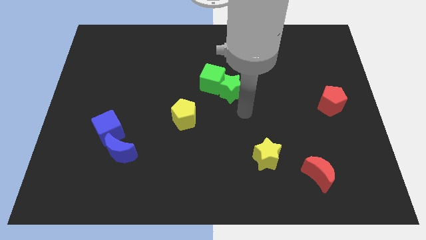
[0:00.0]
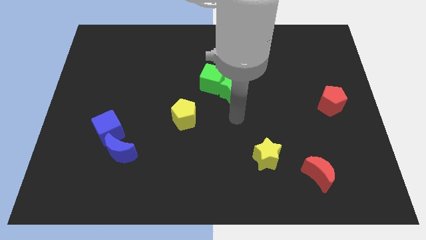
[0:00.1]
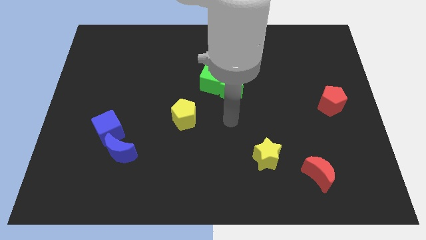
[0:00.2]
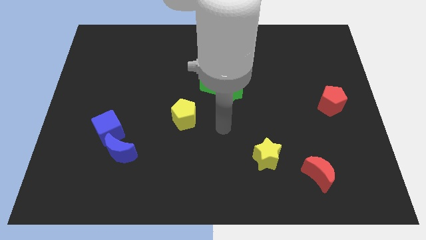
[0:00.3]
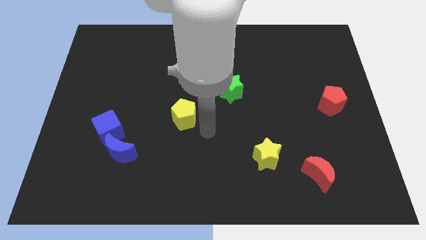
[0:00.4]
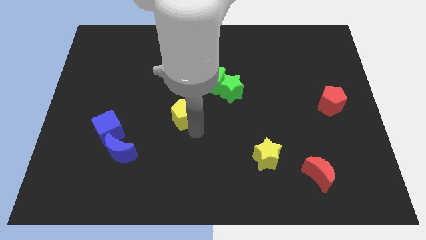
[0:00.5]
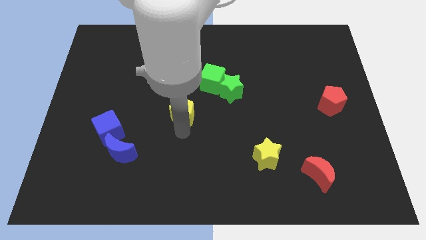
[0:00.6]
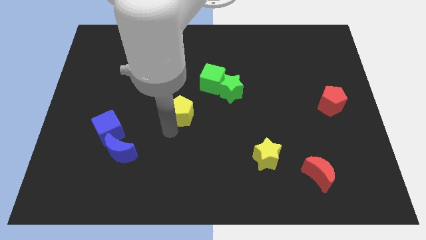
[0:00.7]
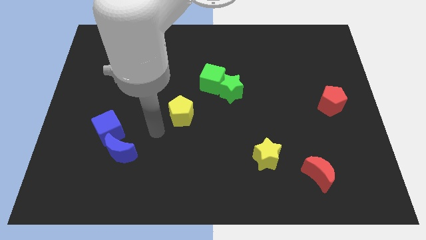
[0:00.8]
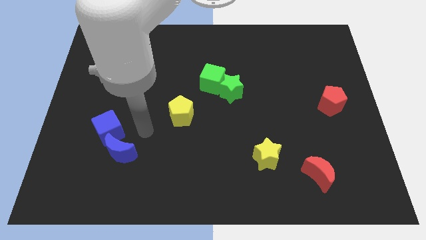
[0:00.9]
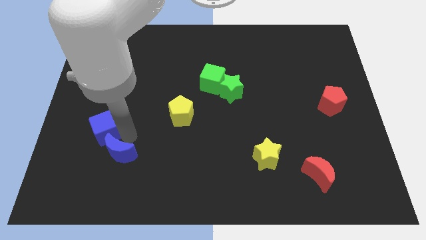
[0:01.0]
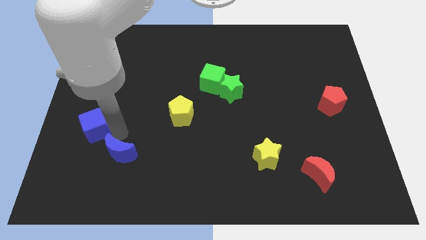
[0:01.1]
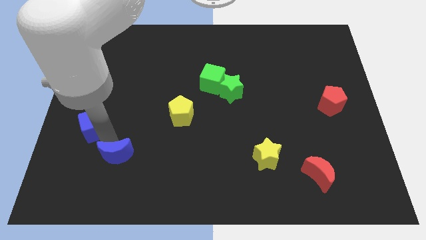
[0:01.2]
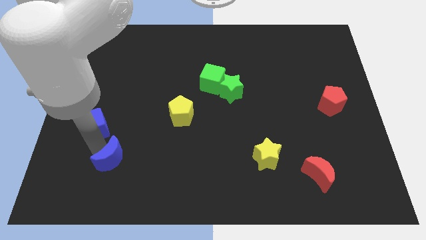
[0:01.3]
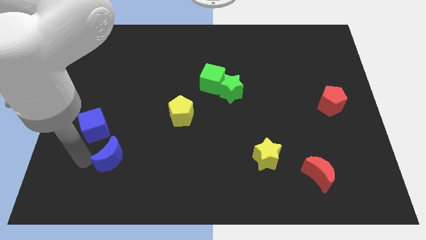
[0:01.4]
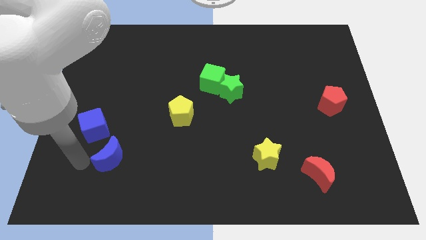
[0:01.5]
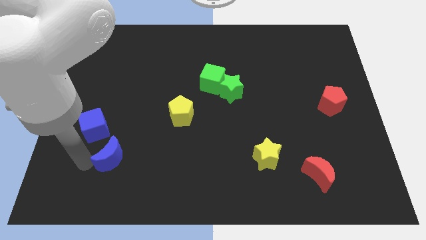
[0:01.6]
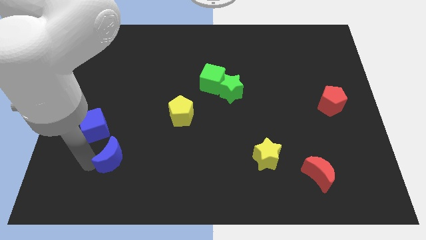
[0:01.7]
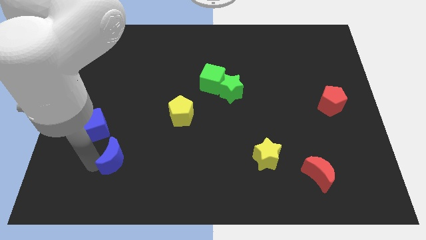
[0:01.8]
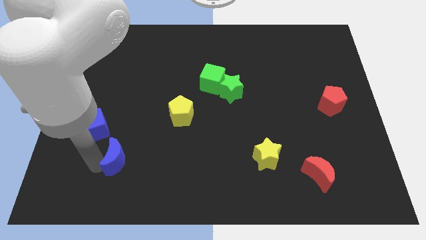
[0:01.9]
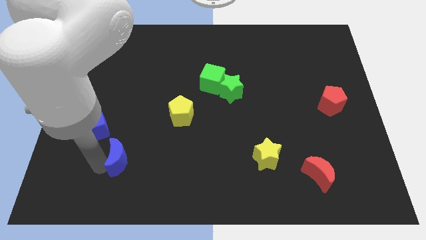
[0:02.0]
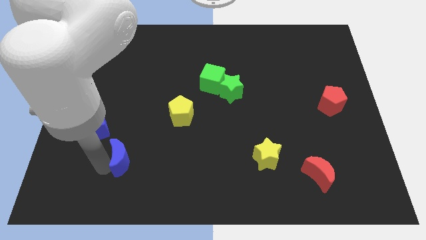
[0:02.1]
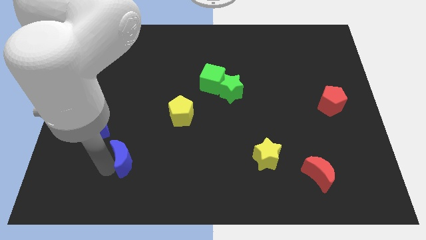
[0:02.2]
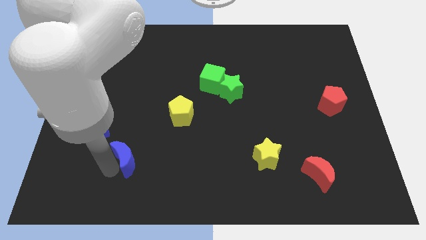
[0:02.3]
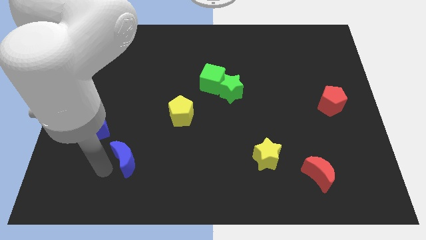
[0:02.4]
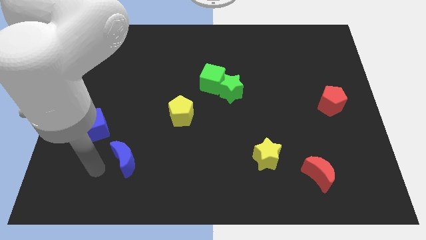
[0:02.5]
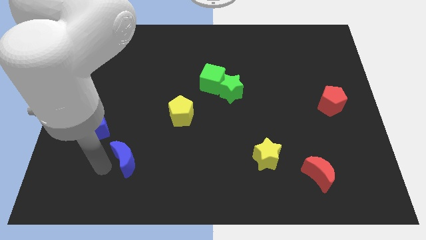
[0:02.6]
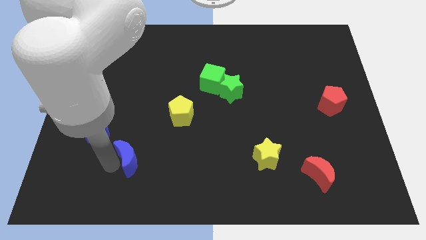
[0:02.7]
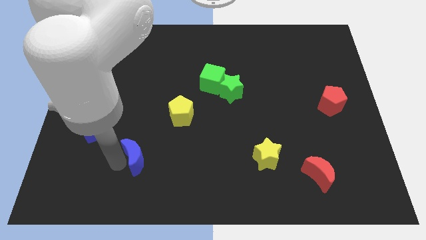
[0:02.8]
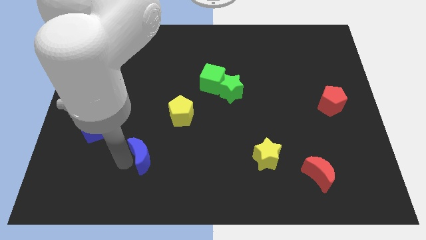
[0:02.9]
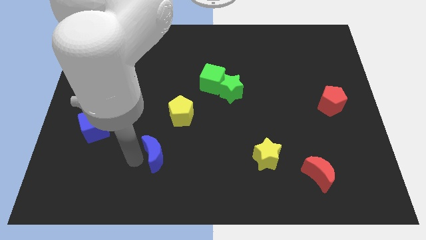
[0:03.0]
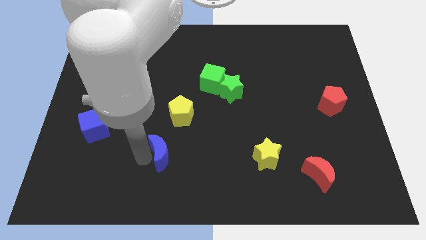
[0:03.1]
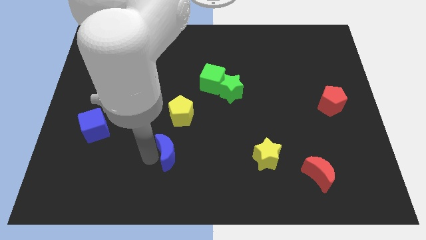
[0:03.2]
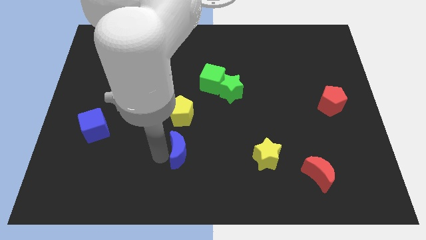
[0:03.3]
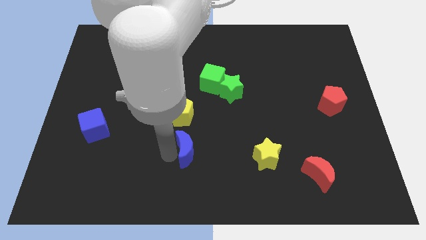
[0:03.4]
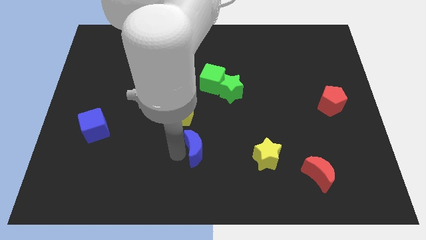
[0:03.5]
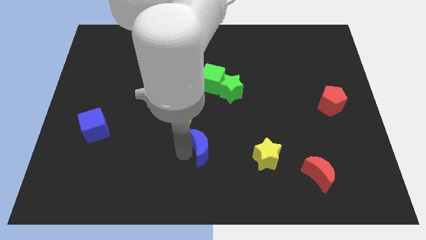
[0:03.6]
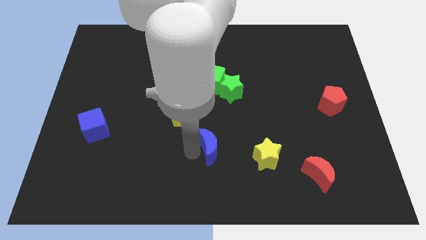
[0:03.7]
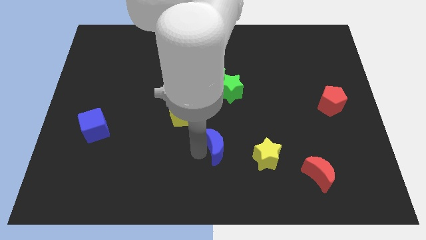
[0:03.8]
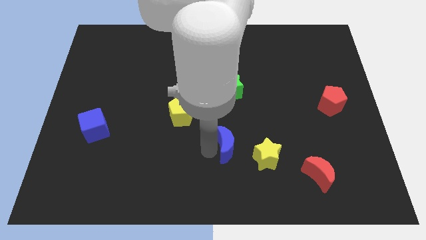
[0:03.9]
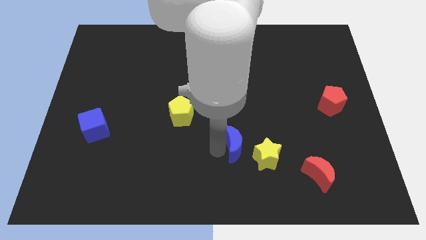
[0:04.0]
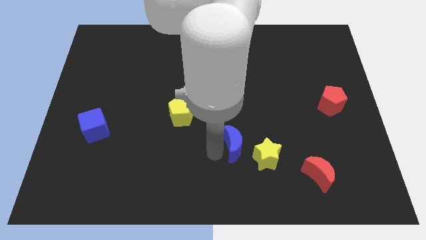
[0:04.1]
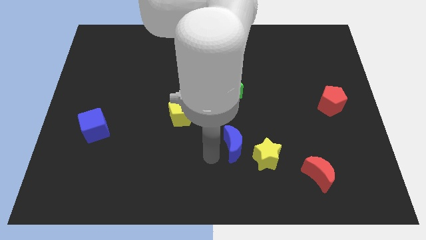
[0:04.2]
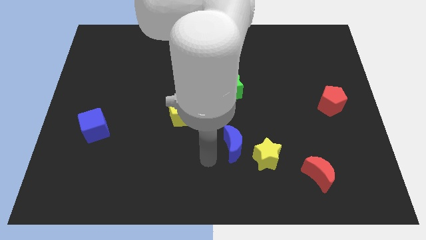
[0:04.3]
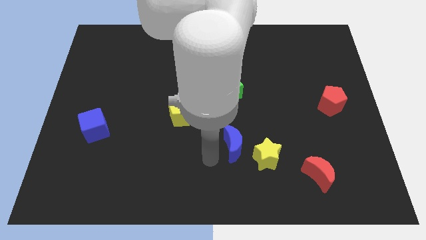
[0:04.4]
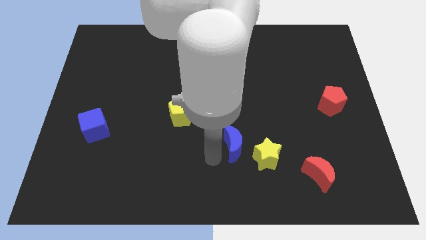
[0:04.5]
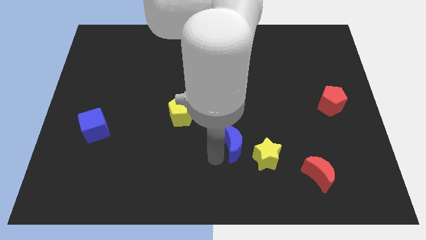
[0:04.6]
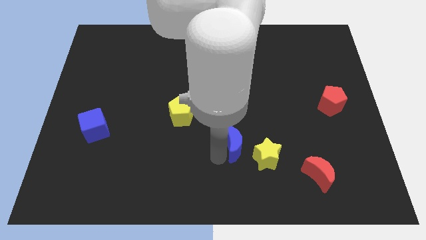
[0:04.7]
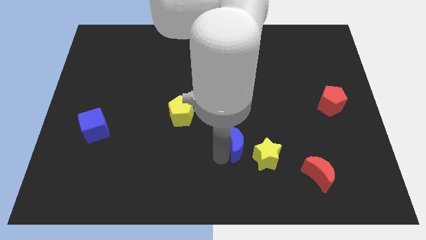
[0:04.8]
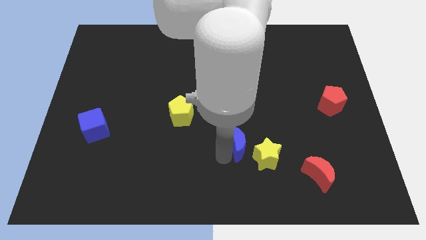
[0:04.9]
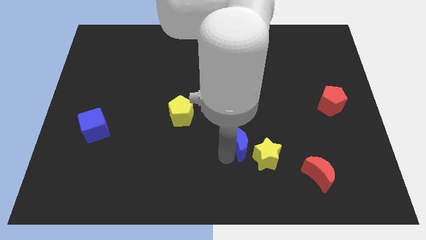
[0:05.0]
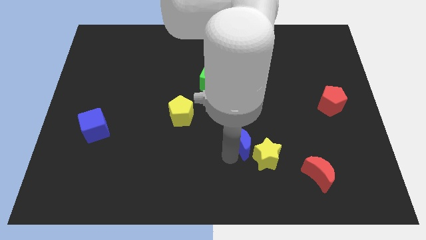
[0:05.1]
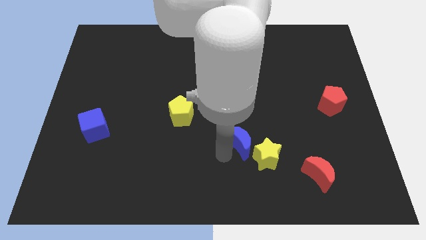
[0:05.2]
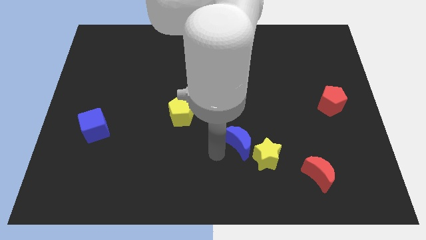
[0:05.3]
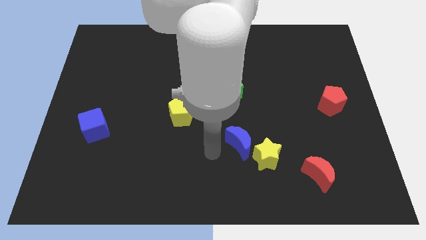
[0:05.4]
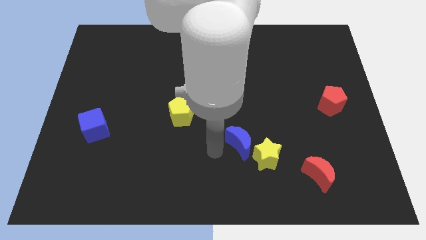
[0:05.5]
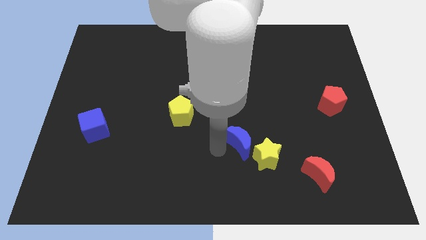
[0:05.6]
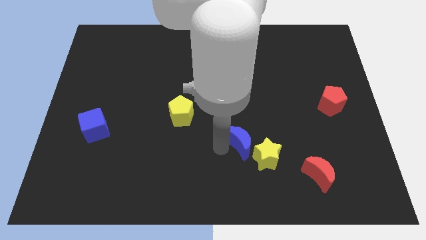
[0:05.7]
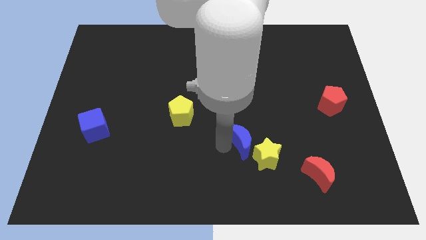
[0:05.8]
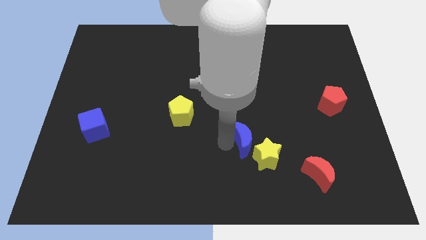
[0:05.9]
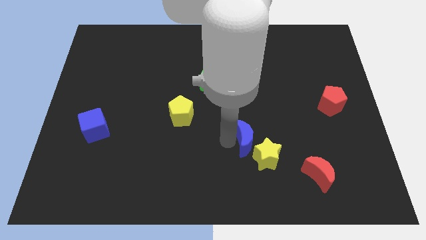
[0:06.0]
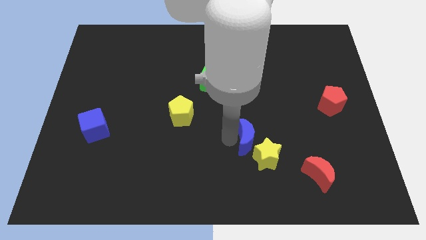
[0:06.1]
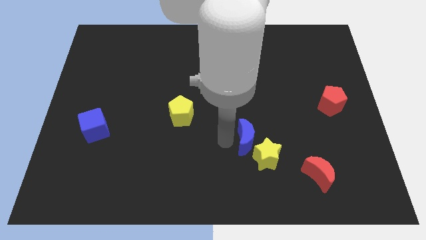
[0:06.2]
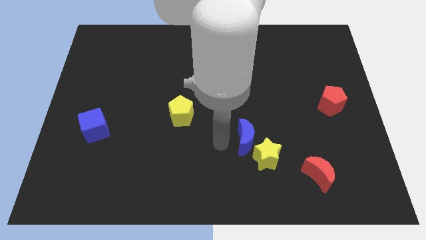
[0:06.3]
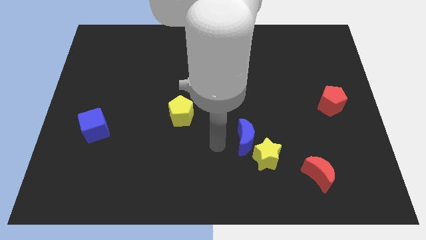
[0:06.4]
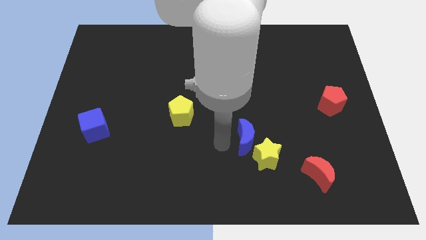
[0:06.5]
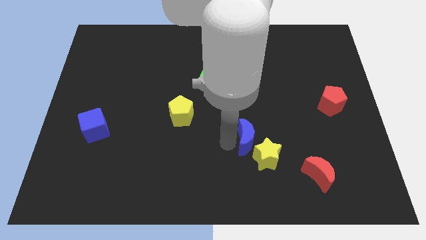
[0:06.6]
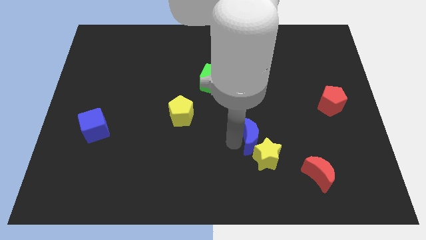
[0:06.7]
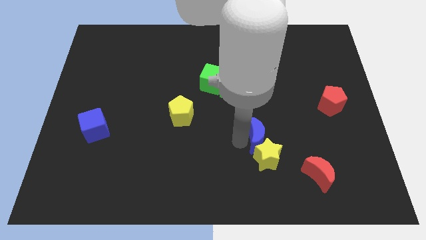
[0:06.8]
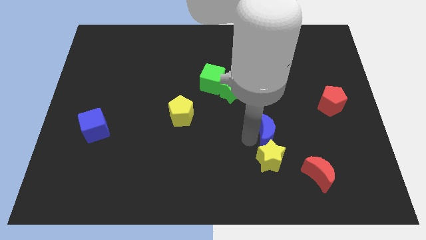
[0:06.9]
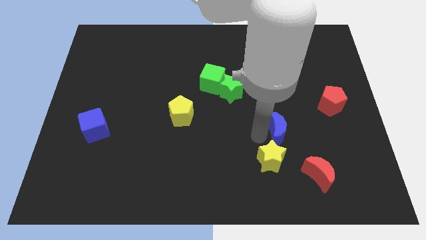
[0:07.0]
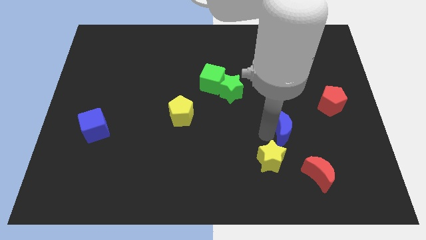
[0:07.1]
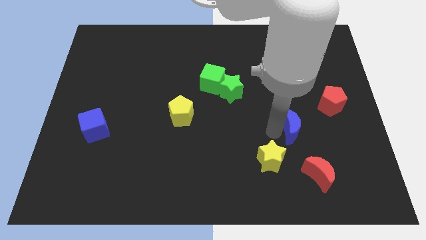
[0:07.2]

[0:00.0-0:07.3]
push the blue moon to the top of the red moon
